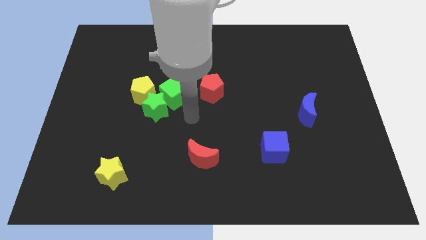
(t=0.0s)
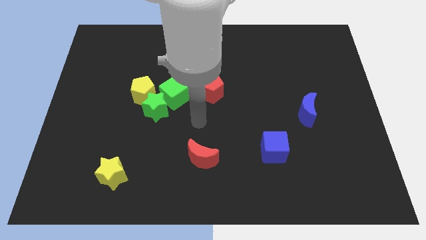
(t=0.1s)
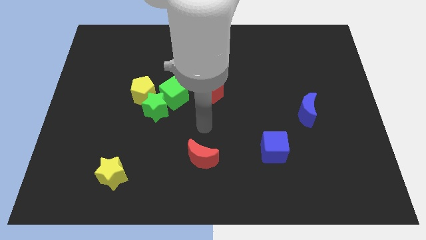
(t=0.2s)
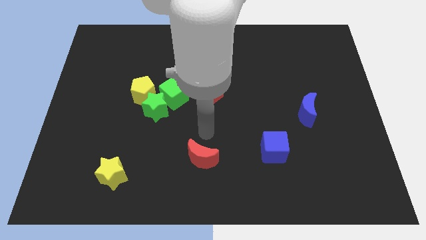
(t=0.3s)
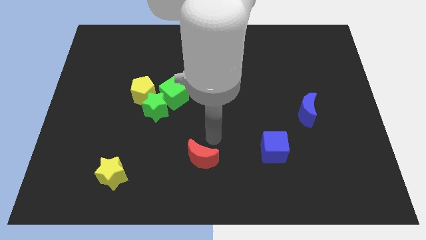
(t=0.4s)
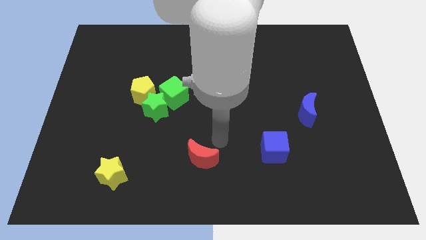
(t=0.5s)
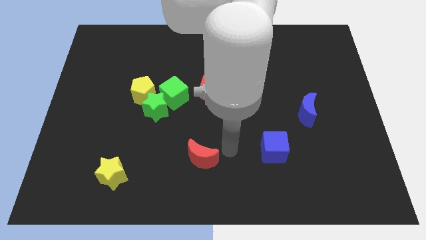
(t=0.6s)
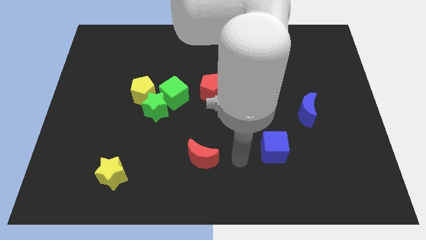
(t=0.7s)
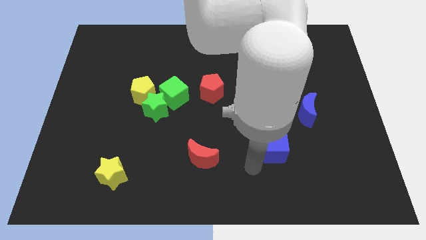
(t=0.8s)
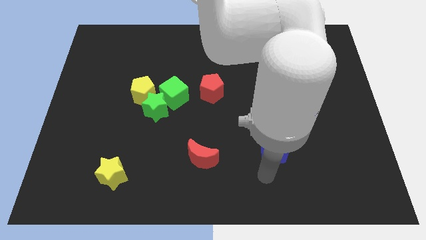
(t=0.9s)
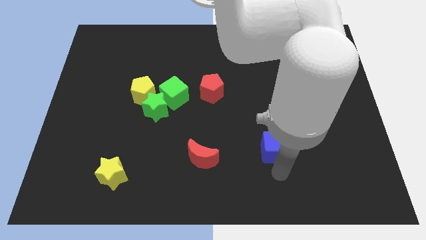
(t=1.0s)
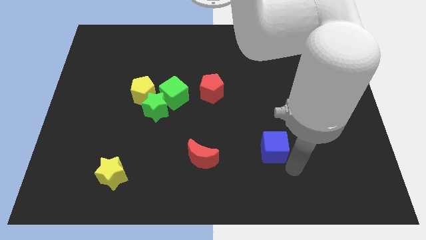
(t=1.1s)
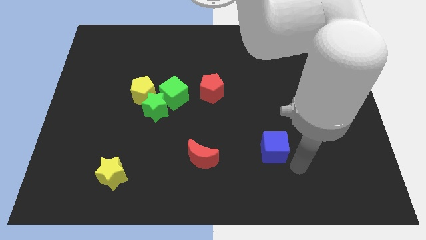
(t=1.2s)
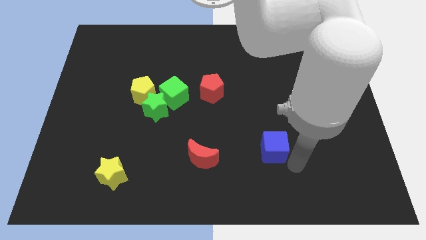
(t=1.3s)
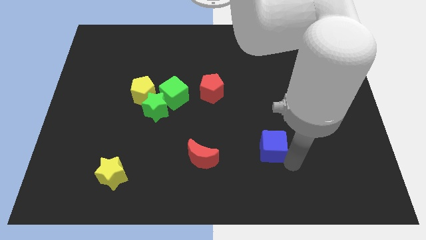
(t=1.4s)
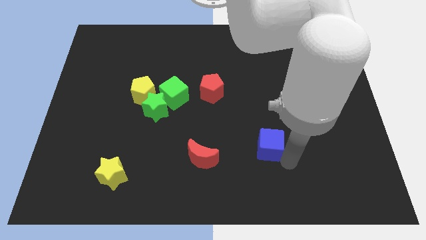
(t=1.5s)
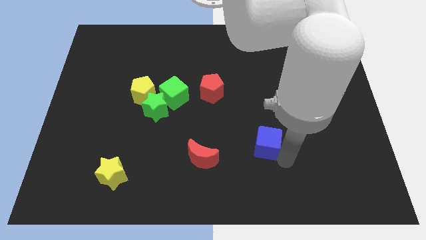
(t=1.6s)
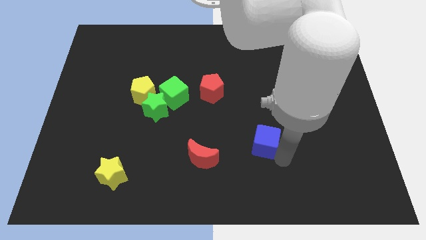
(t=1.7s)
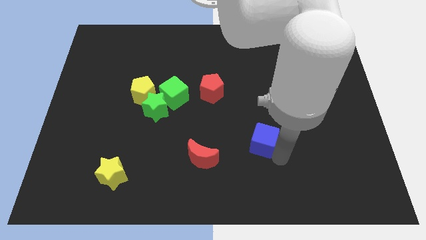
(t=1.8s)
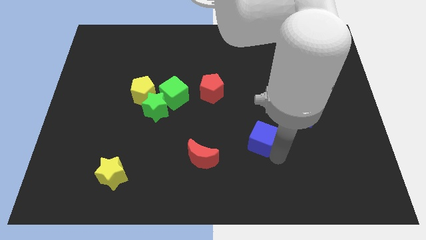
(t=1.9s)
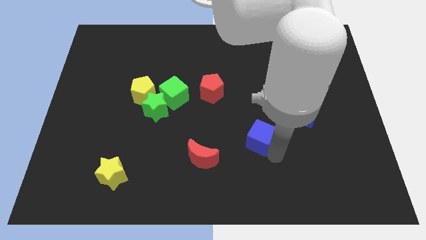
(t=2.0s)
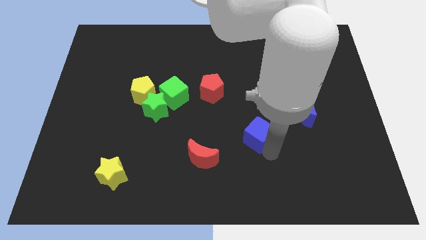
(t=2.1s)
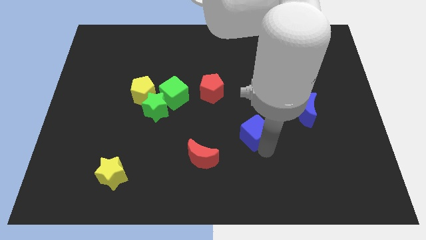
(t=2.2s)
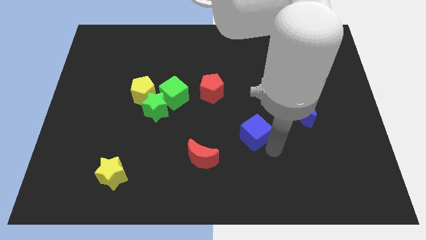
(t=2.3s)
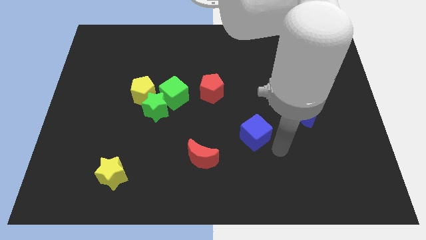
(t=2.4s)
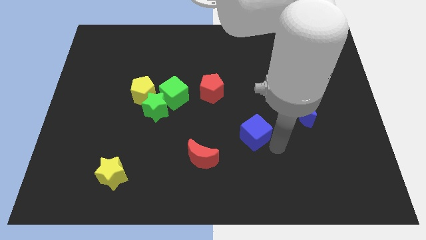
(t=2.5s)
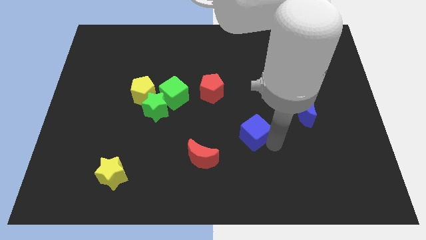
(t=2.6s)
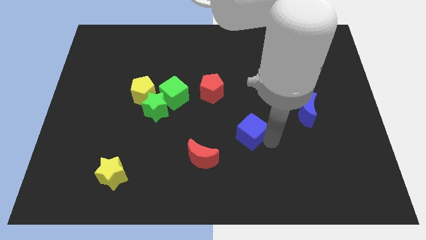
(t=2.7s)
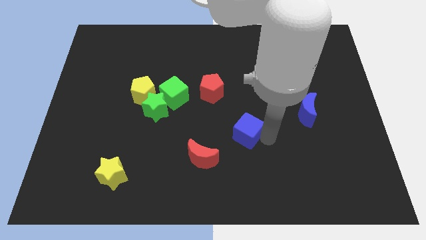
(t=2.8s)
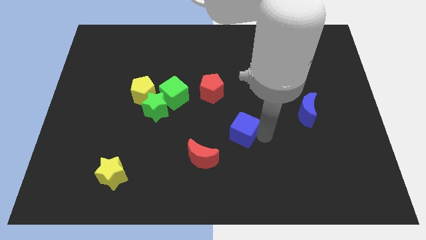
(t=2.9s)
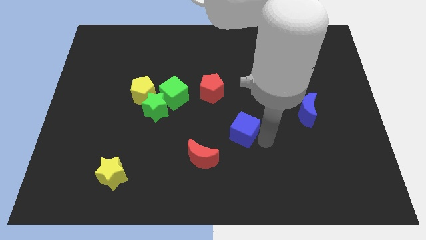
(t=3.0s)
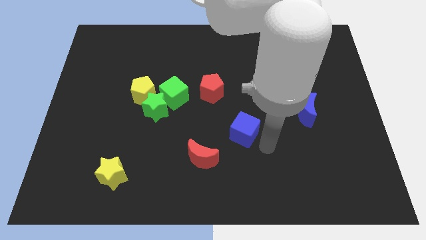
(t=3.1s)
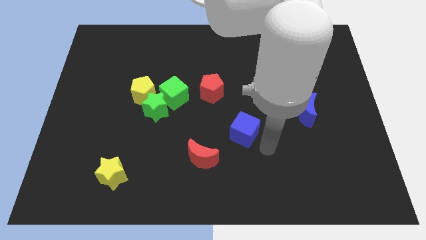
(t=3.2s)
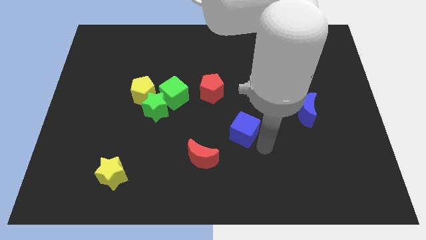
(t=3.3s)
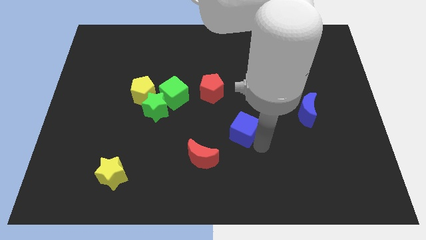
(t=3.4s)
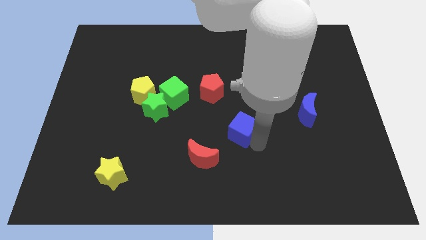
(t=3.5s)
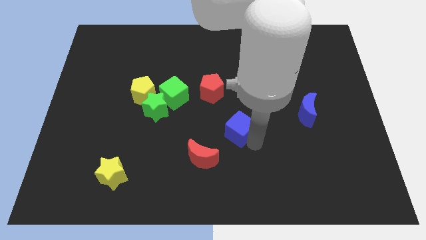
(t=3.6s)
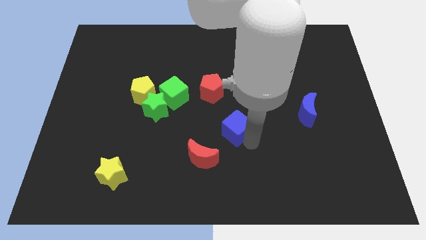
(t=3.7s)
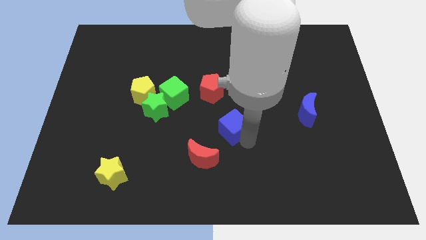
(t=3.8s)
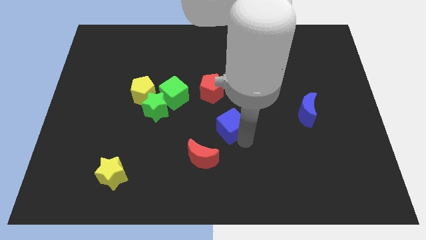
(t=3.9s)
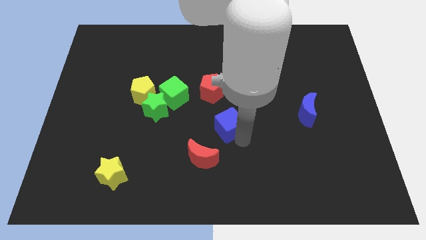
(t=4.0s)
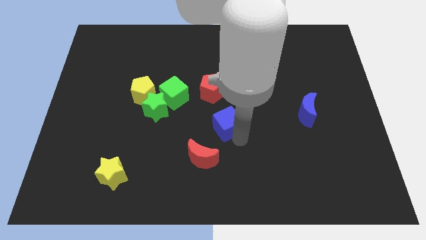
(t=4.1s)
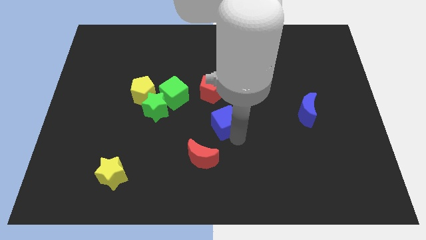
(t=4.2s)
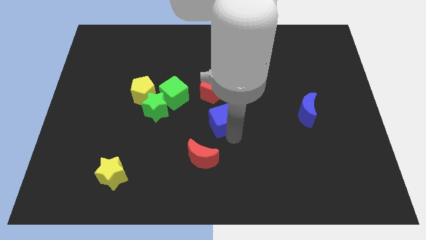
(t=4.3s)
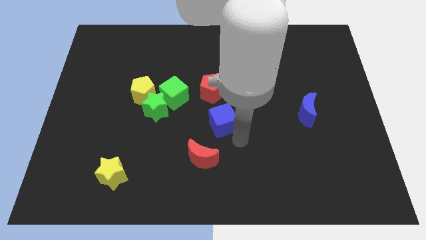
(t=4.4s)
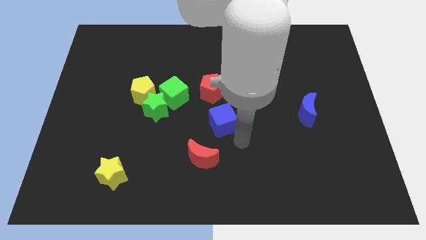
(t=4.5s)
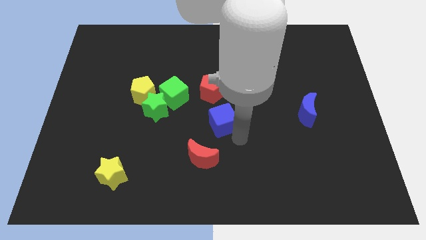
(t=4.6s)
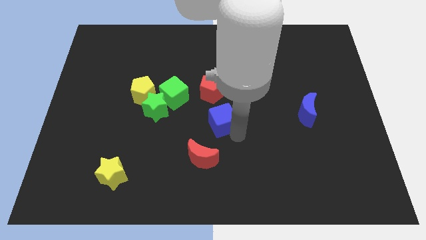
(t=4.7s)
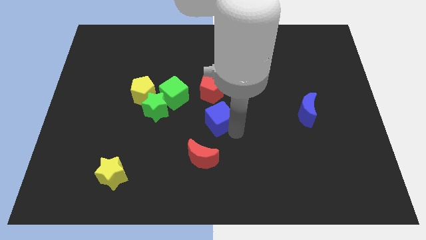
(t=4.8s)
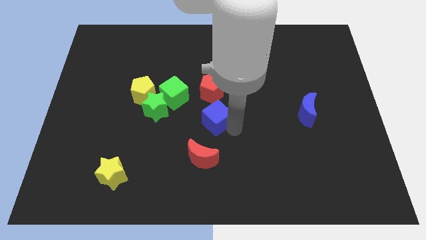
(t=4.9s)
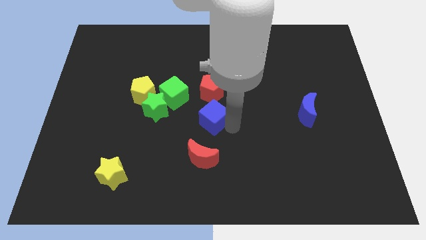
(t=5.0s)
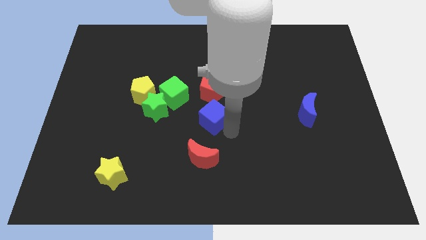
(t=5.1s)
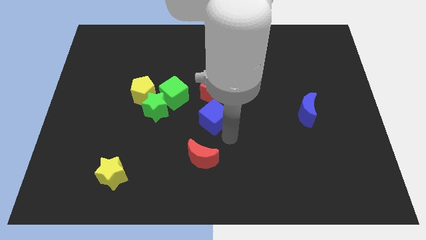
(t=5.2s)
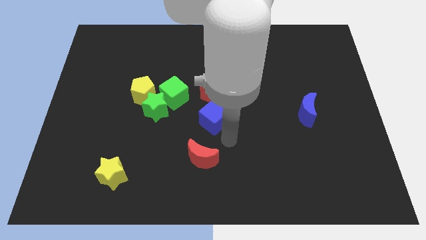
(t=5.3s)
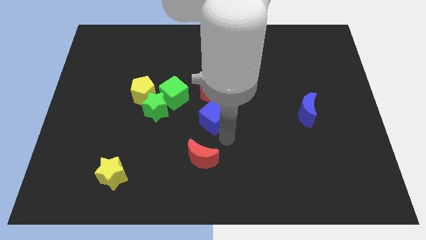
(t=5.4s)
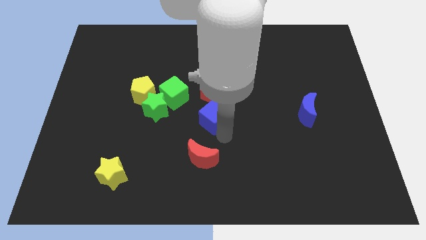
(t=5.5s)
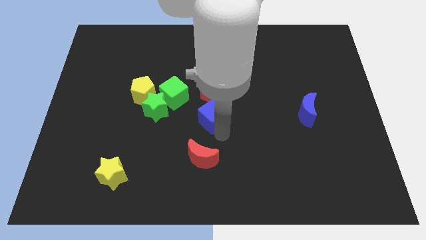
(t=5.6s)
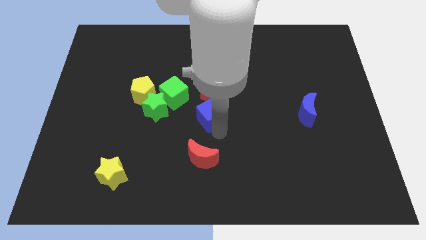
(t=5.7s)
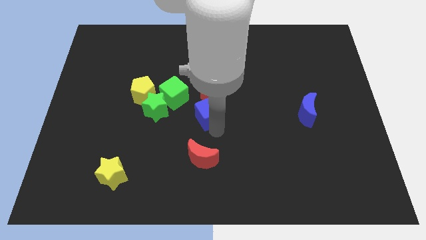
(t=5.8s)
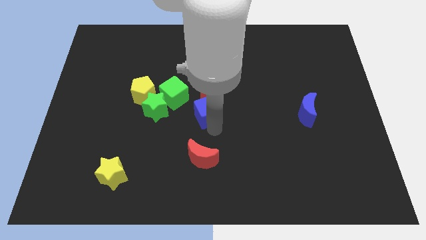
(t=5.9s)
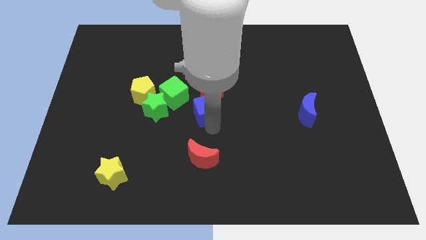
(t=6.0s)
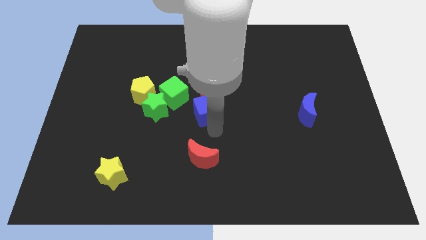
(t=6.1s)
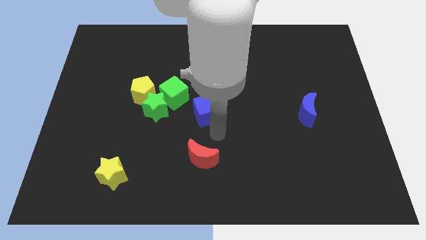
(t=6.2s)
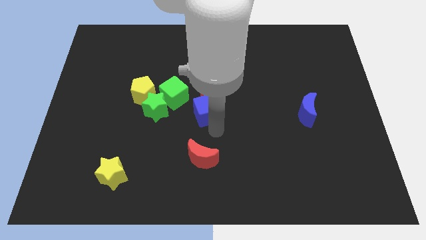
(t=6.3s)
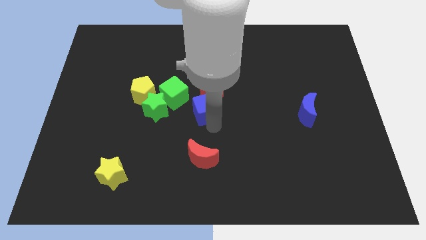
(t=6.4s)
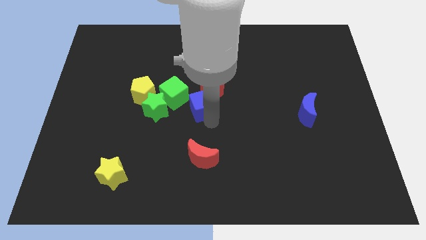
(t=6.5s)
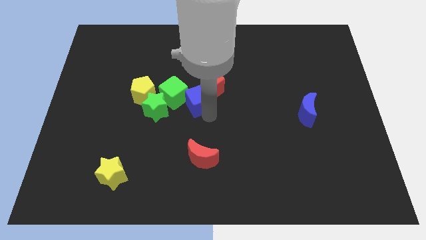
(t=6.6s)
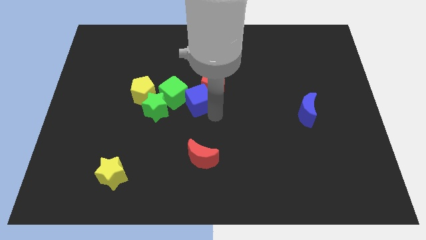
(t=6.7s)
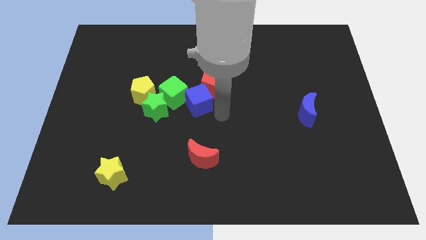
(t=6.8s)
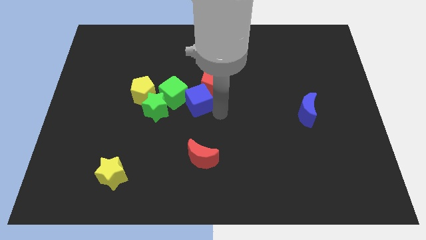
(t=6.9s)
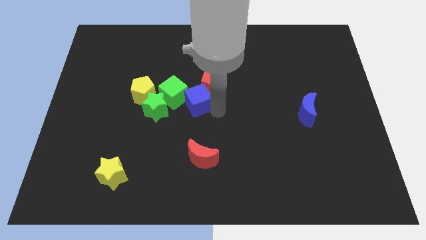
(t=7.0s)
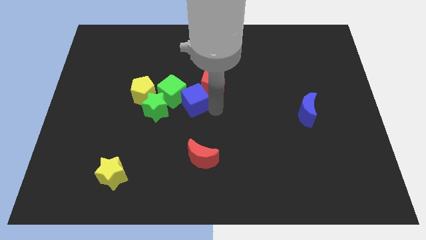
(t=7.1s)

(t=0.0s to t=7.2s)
move the blue cube diagonally up and to the right of the green star

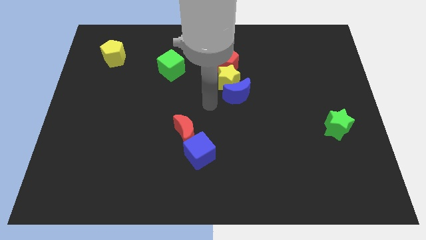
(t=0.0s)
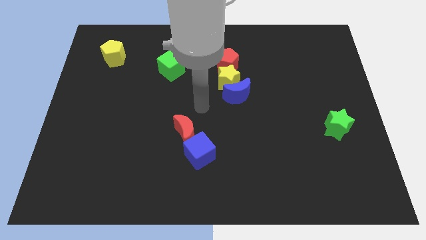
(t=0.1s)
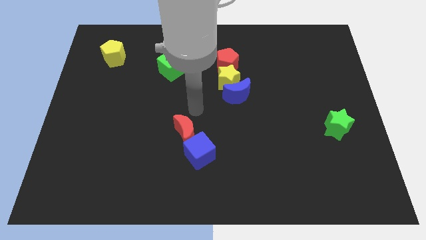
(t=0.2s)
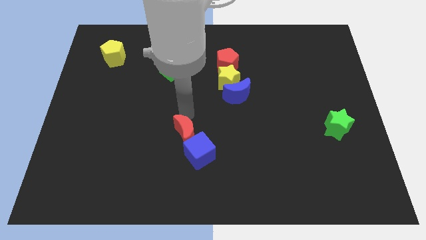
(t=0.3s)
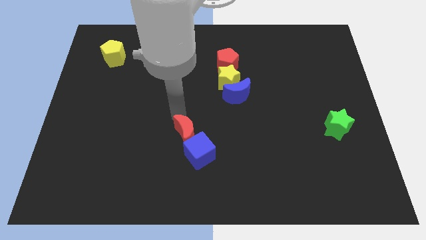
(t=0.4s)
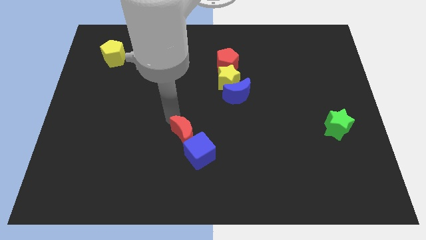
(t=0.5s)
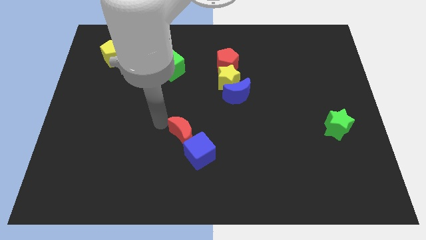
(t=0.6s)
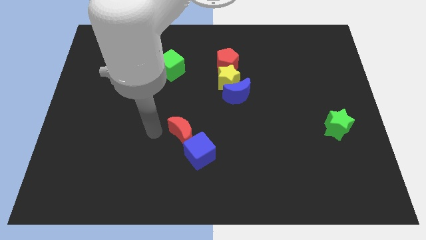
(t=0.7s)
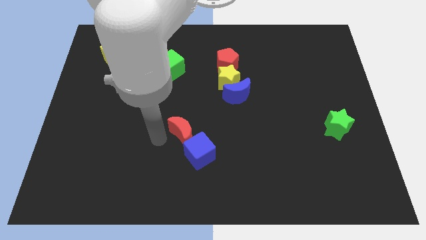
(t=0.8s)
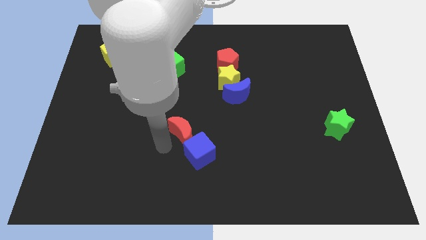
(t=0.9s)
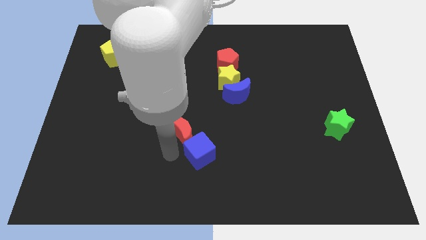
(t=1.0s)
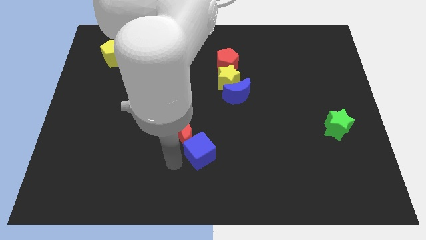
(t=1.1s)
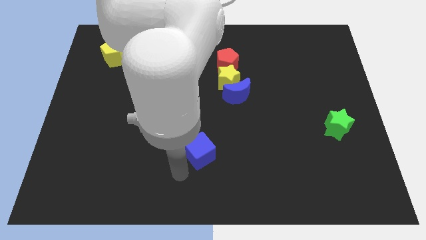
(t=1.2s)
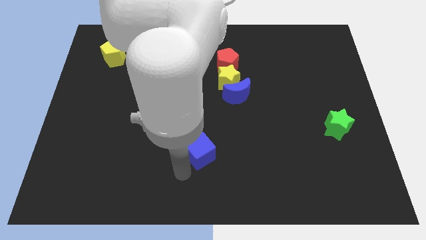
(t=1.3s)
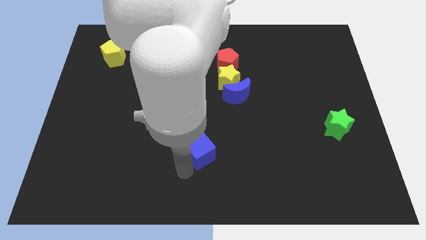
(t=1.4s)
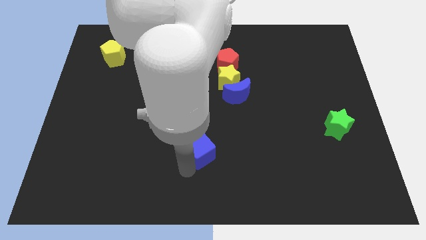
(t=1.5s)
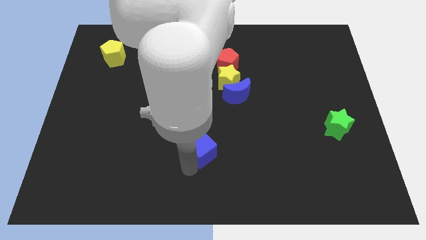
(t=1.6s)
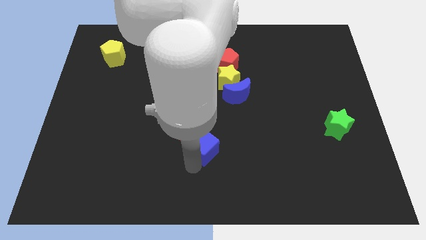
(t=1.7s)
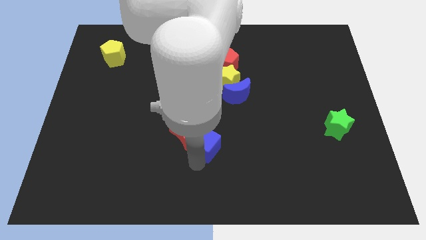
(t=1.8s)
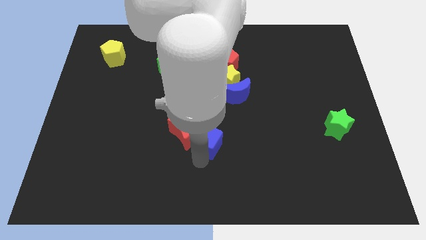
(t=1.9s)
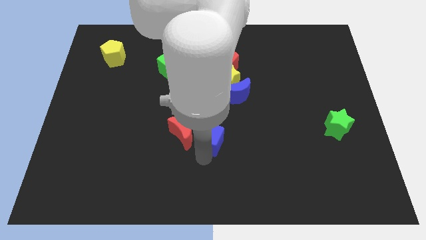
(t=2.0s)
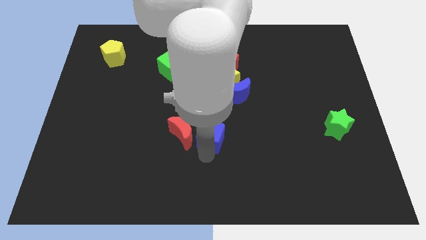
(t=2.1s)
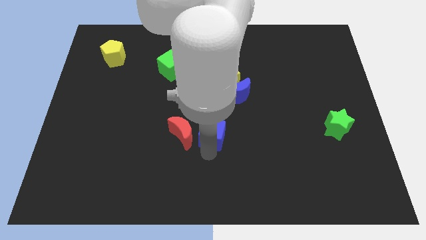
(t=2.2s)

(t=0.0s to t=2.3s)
move the blue cube to the top right side of the red moon
